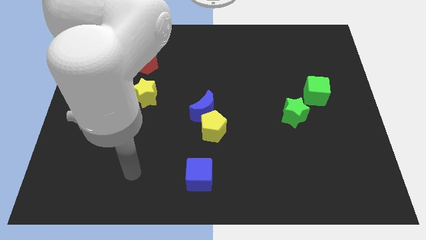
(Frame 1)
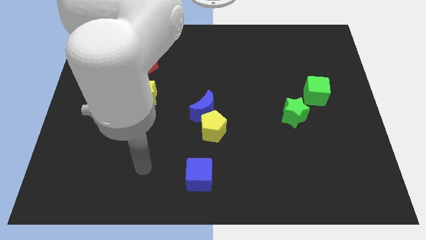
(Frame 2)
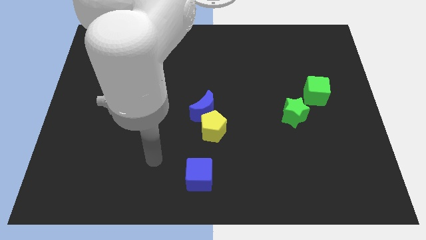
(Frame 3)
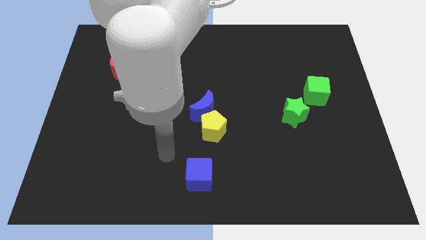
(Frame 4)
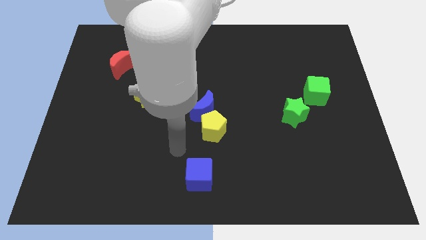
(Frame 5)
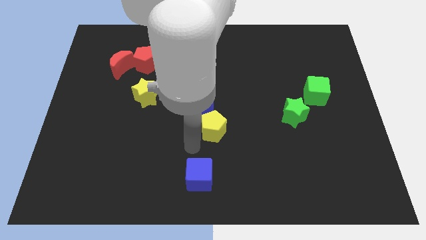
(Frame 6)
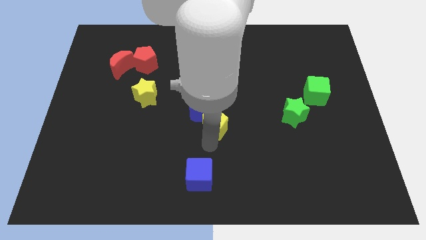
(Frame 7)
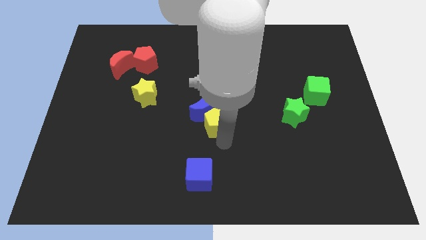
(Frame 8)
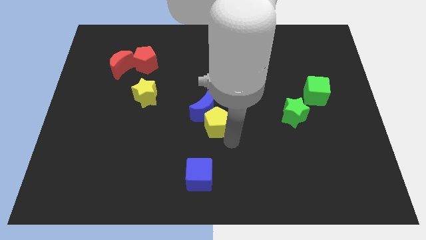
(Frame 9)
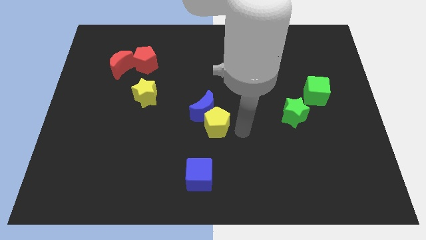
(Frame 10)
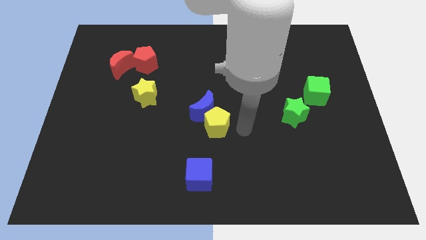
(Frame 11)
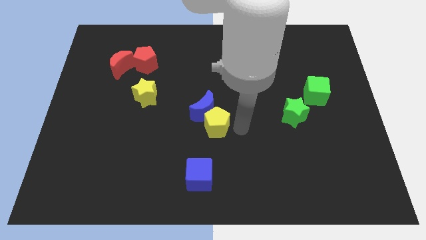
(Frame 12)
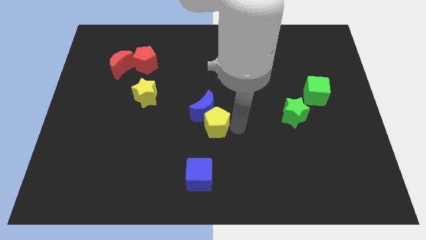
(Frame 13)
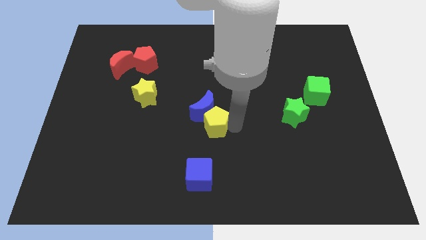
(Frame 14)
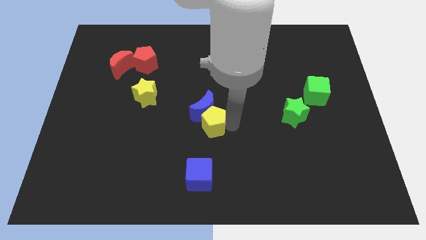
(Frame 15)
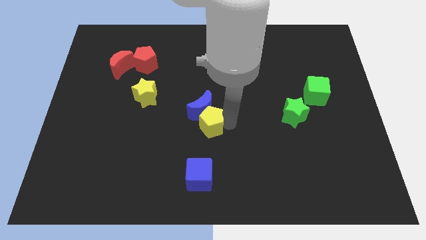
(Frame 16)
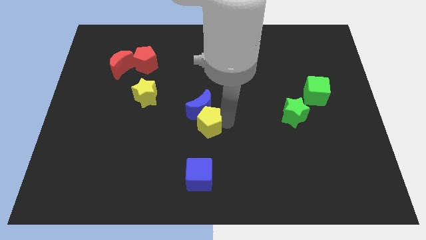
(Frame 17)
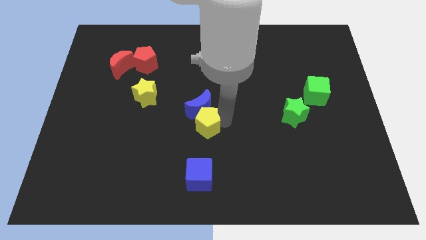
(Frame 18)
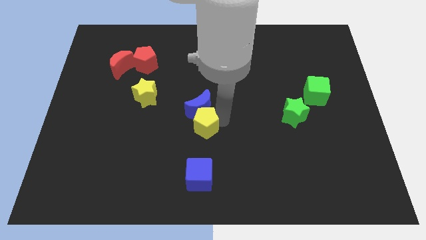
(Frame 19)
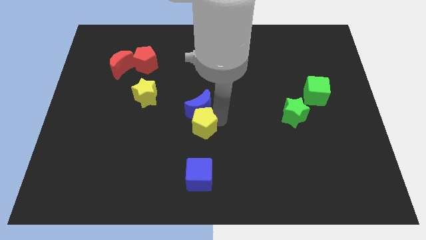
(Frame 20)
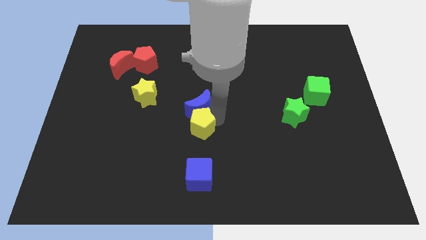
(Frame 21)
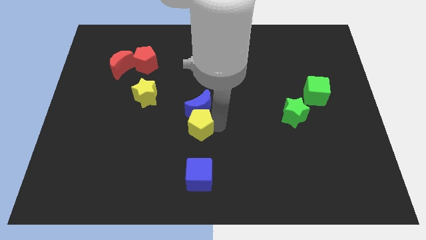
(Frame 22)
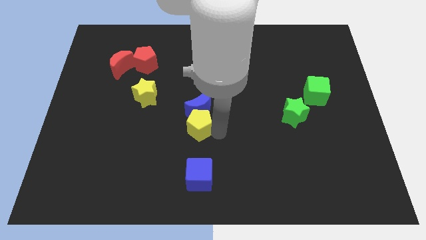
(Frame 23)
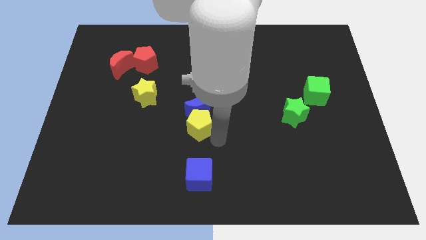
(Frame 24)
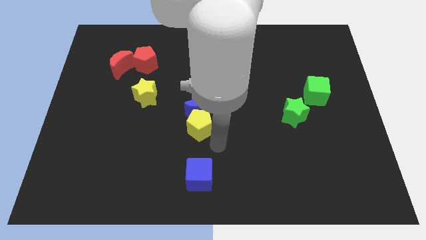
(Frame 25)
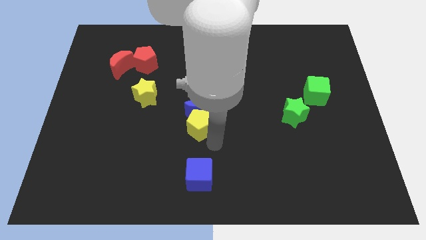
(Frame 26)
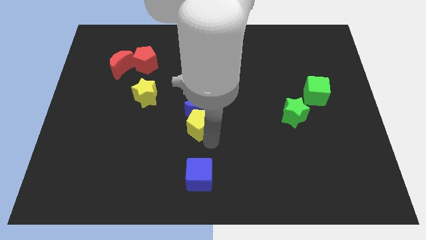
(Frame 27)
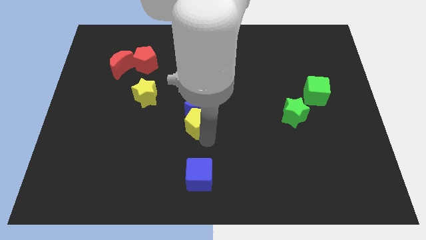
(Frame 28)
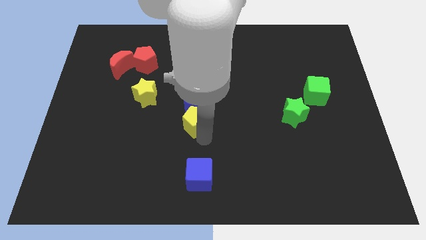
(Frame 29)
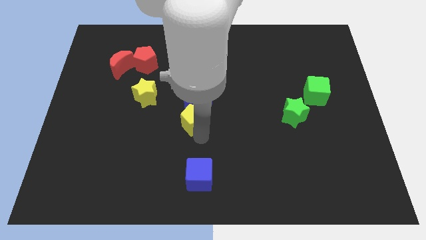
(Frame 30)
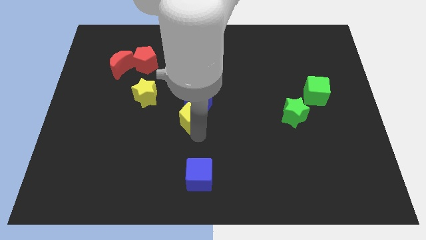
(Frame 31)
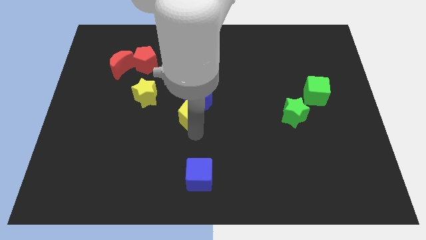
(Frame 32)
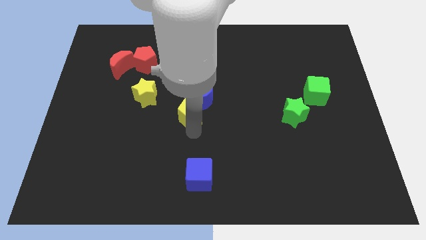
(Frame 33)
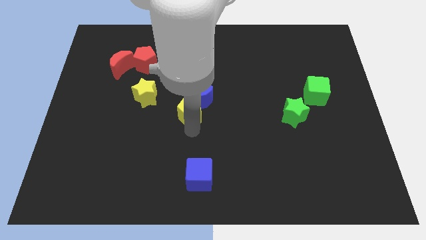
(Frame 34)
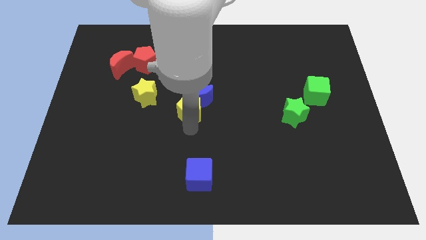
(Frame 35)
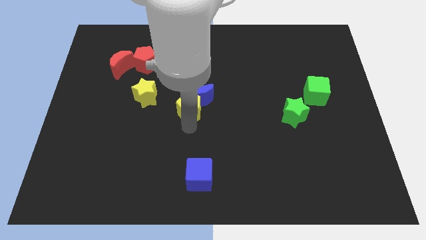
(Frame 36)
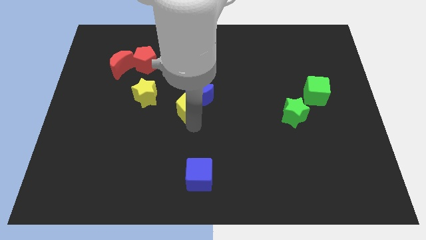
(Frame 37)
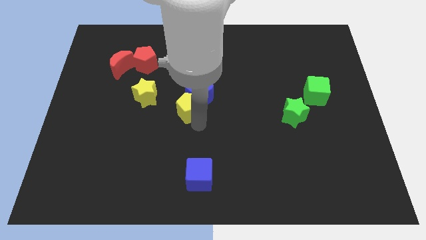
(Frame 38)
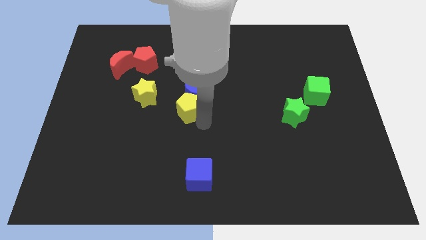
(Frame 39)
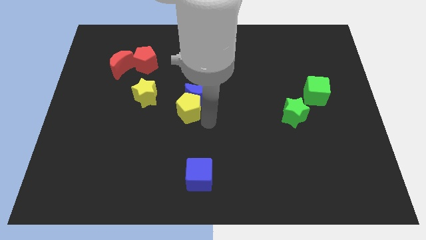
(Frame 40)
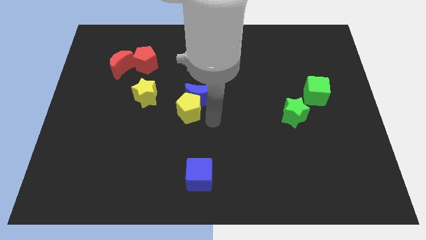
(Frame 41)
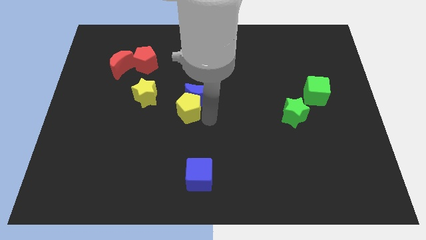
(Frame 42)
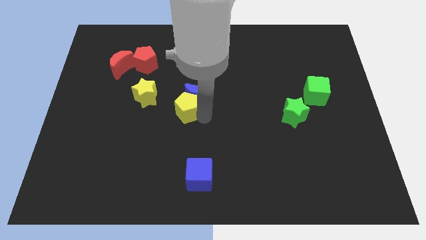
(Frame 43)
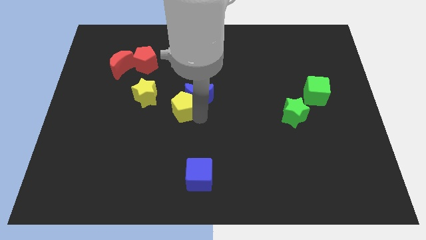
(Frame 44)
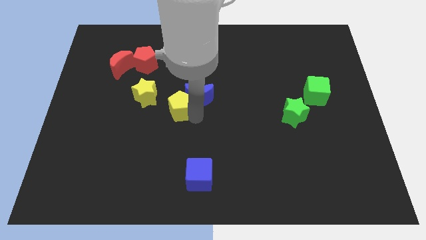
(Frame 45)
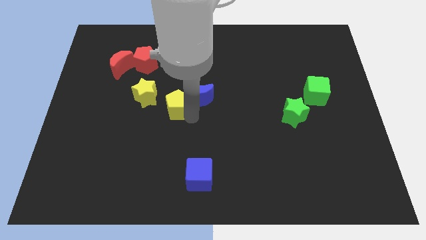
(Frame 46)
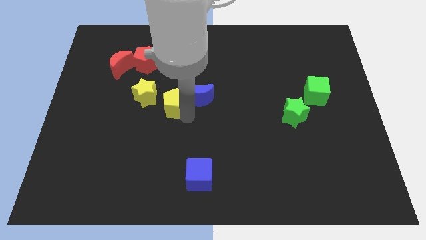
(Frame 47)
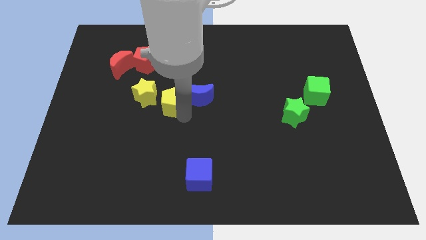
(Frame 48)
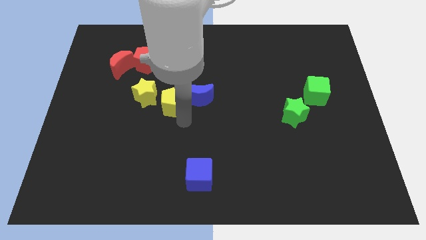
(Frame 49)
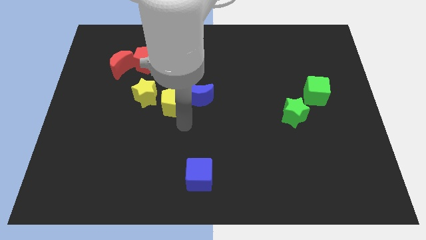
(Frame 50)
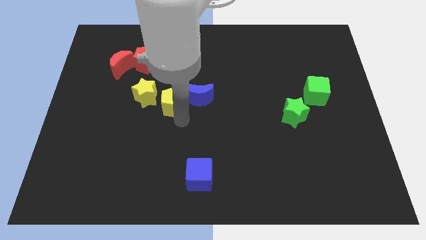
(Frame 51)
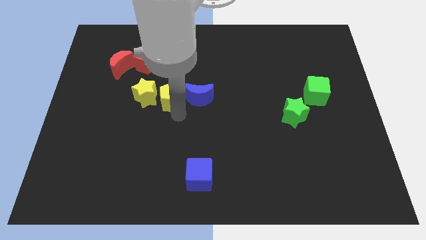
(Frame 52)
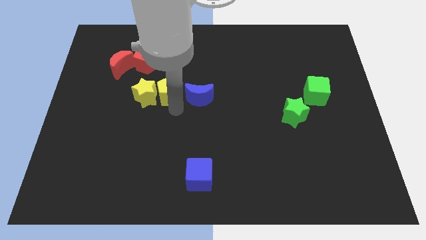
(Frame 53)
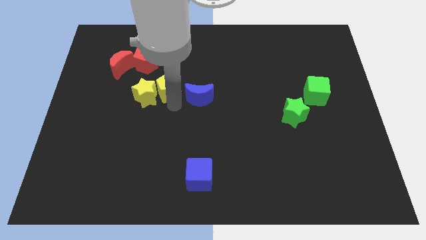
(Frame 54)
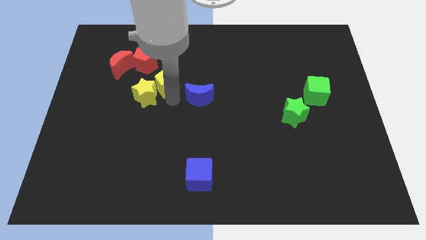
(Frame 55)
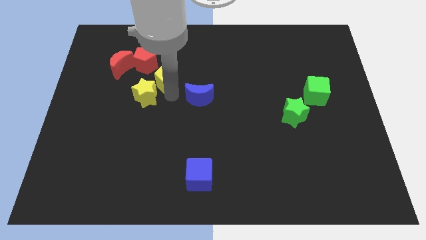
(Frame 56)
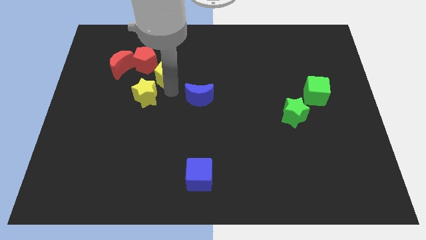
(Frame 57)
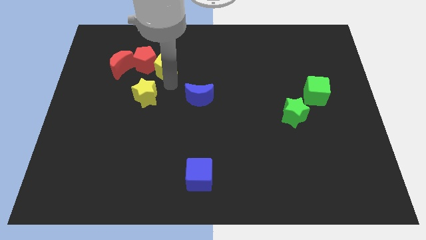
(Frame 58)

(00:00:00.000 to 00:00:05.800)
put the yellow pentagon next to the red pentagon

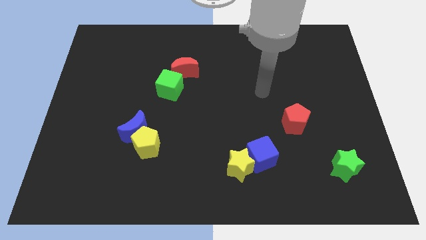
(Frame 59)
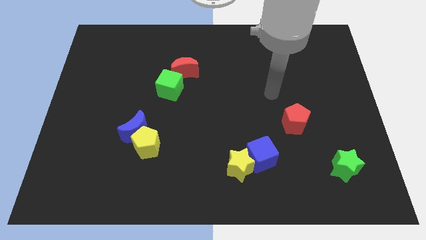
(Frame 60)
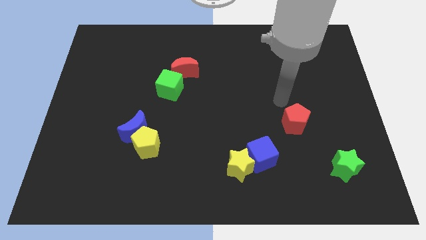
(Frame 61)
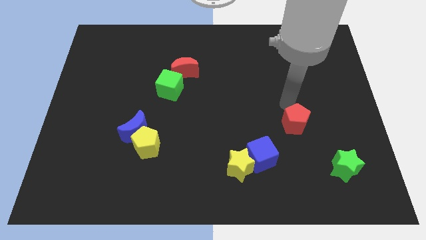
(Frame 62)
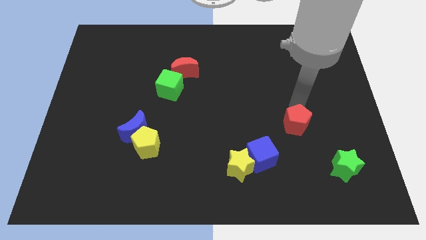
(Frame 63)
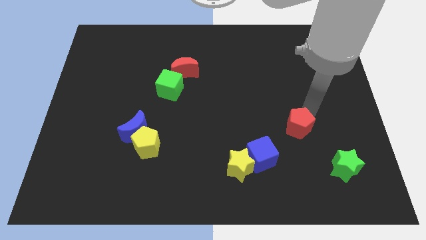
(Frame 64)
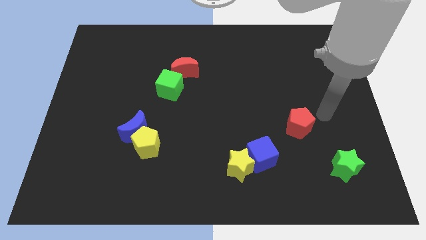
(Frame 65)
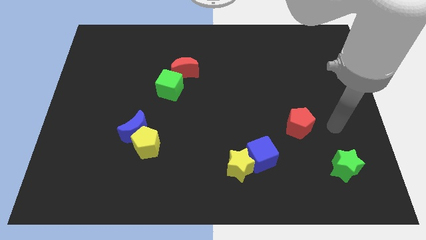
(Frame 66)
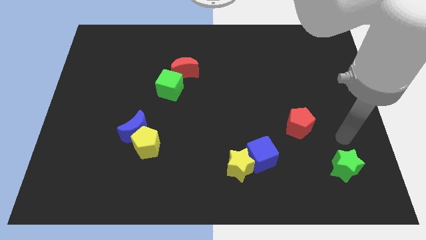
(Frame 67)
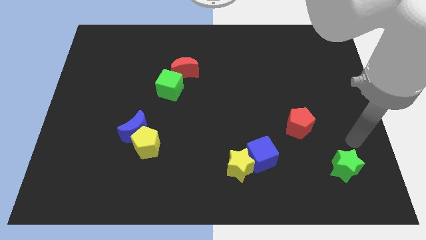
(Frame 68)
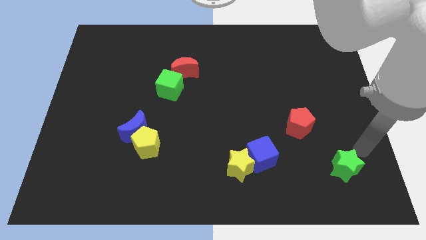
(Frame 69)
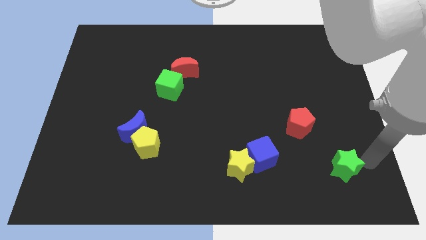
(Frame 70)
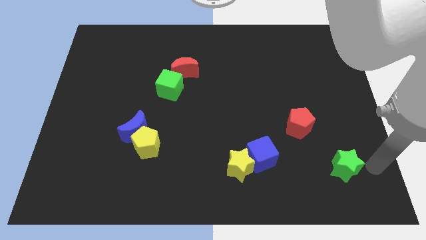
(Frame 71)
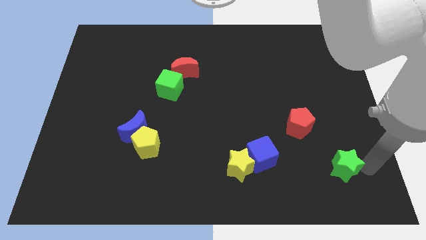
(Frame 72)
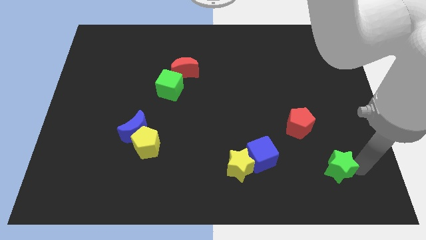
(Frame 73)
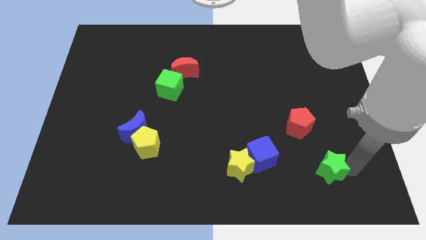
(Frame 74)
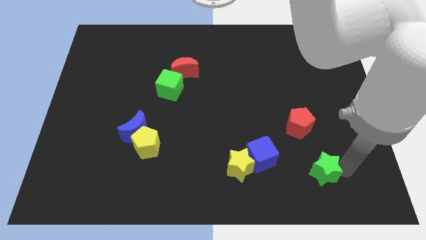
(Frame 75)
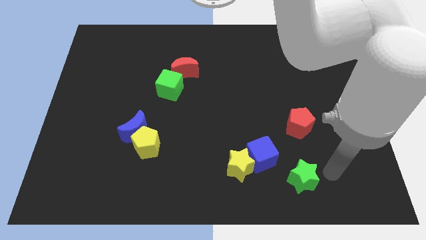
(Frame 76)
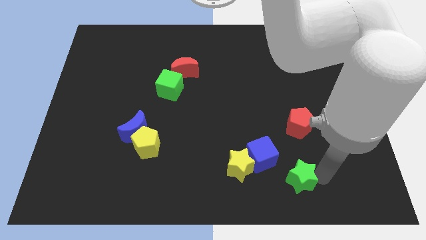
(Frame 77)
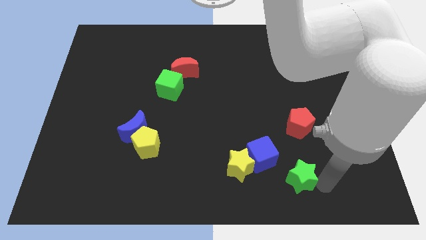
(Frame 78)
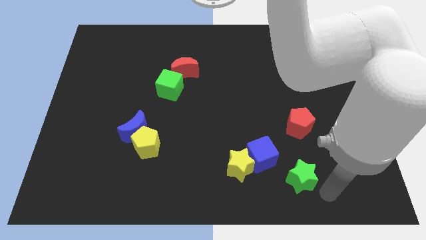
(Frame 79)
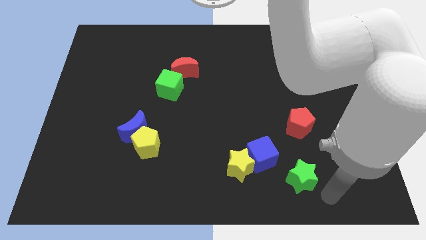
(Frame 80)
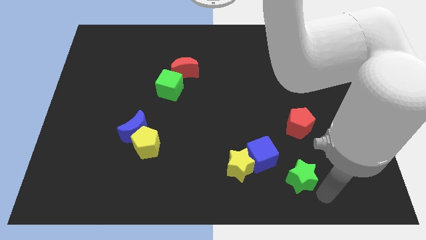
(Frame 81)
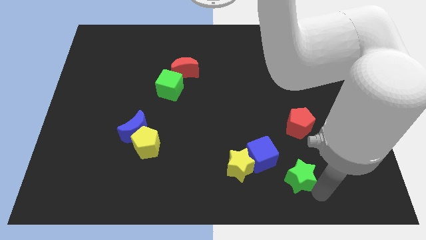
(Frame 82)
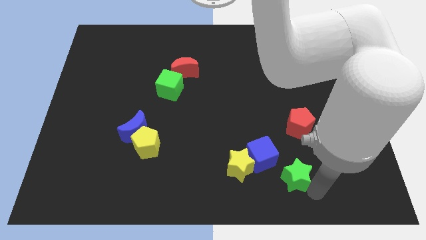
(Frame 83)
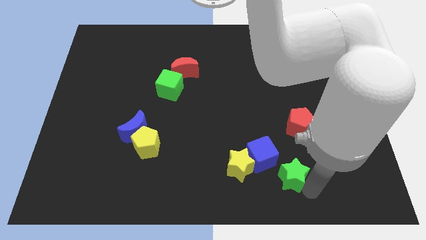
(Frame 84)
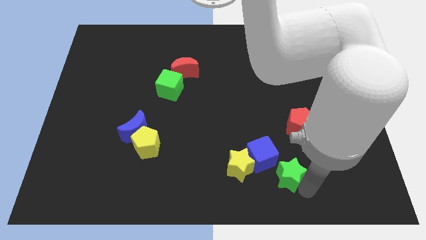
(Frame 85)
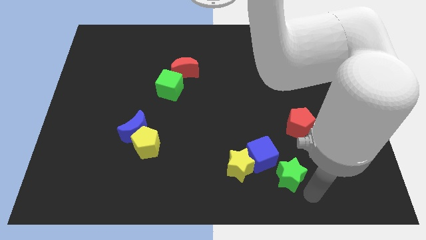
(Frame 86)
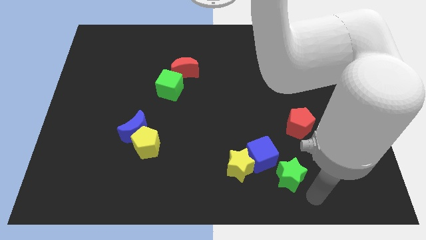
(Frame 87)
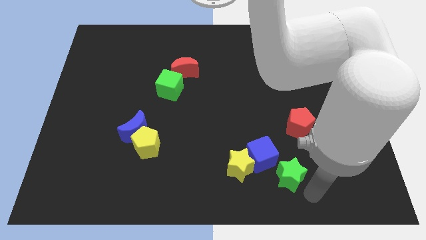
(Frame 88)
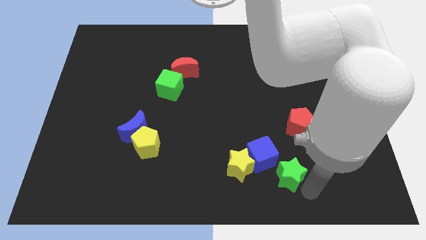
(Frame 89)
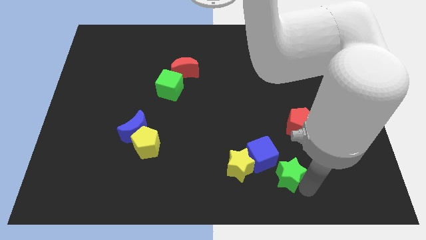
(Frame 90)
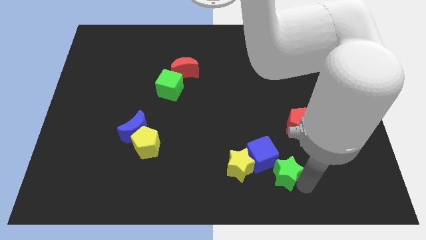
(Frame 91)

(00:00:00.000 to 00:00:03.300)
move the green star towards the blue cube
